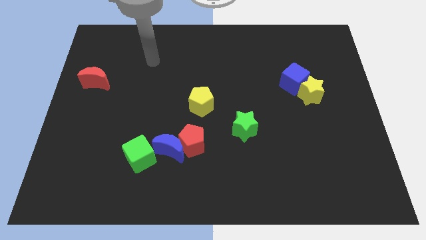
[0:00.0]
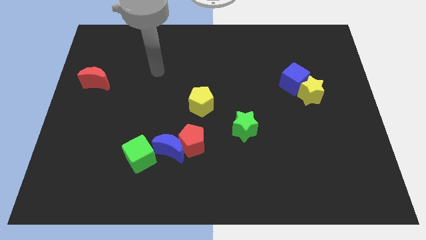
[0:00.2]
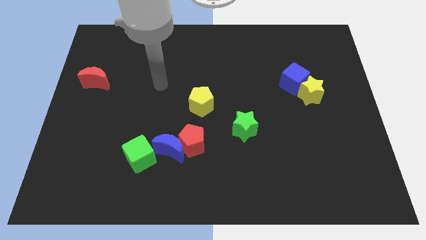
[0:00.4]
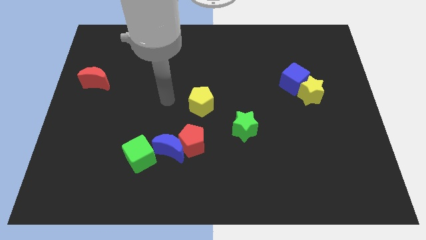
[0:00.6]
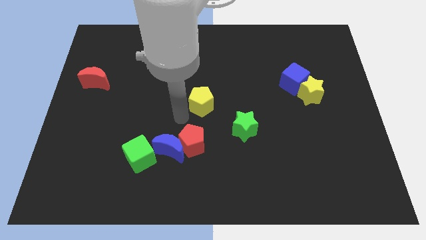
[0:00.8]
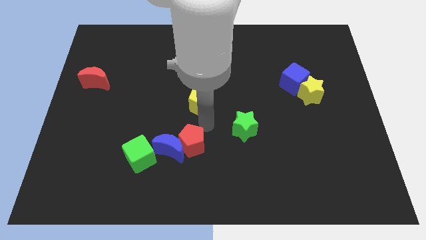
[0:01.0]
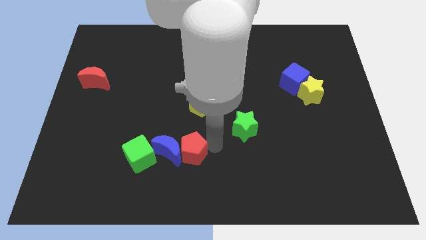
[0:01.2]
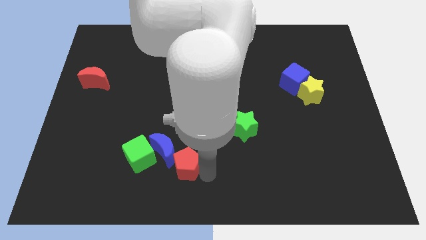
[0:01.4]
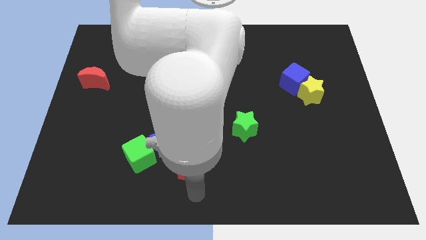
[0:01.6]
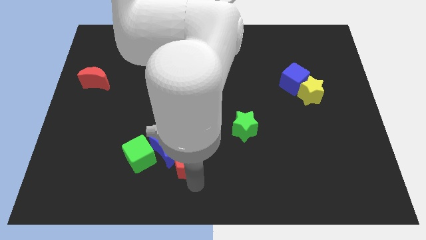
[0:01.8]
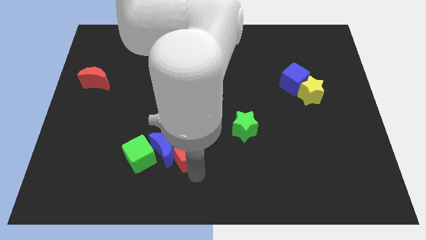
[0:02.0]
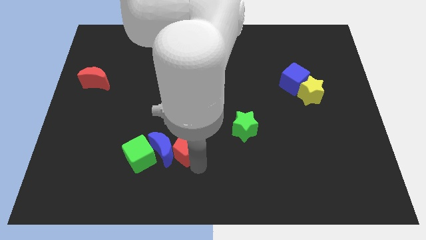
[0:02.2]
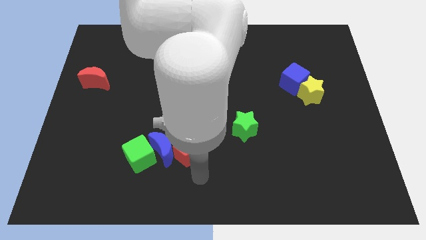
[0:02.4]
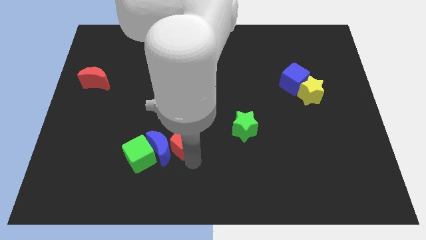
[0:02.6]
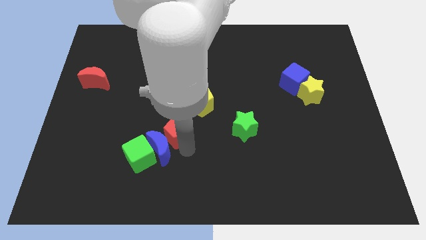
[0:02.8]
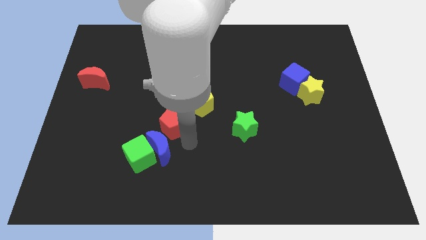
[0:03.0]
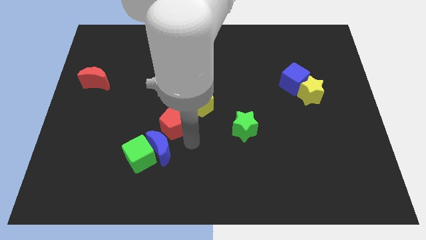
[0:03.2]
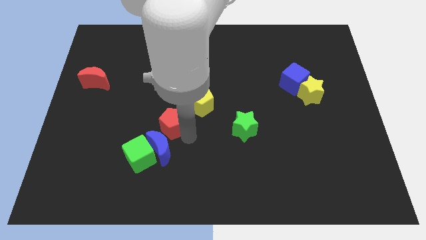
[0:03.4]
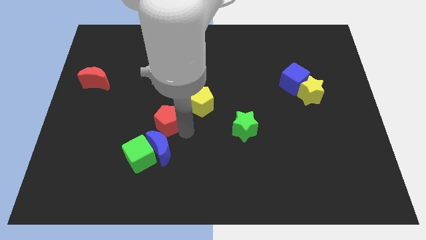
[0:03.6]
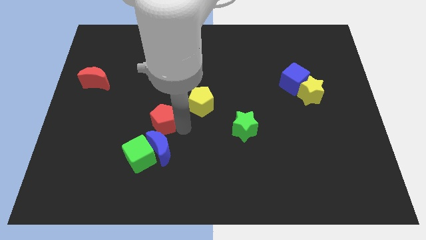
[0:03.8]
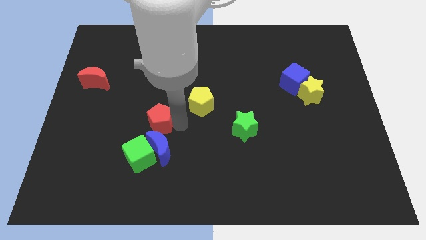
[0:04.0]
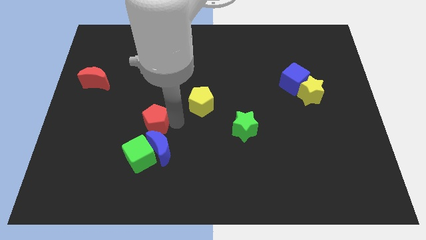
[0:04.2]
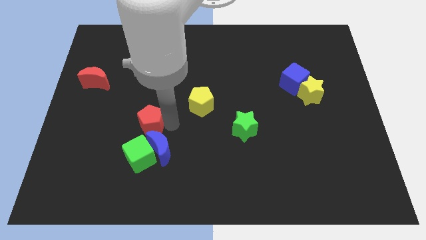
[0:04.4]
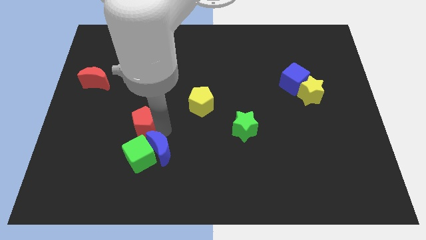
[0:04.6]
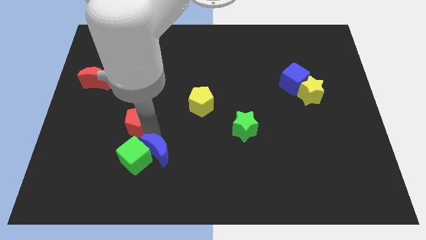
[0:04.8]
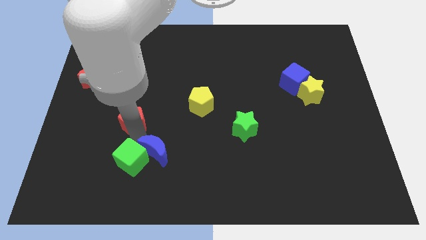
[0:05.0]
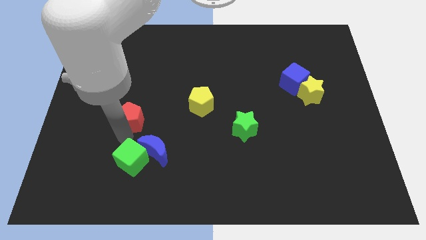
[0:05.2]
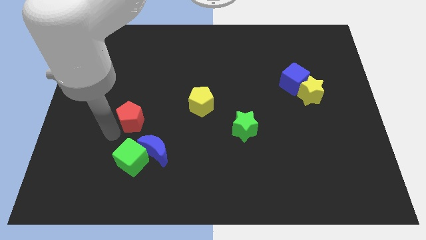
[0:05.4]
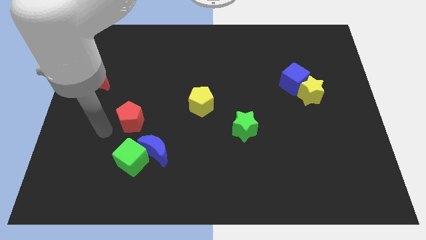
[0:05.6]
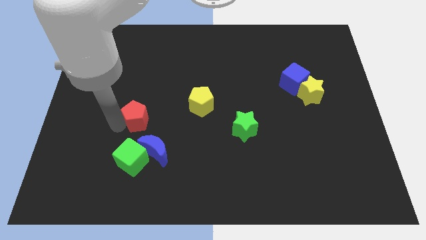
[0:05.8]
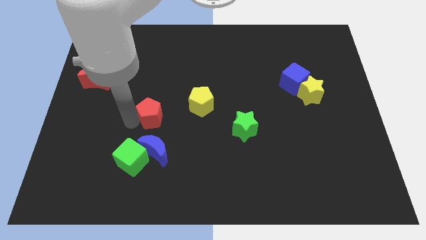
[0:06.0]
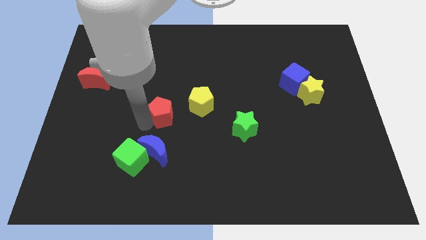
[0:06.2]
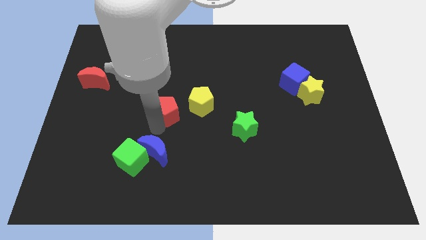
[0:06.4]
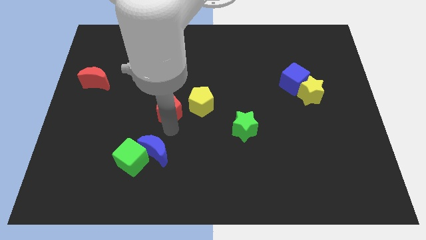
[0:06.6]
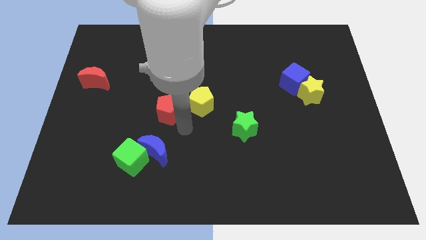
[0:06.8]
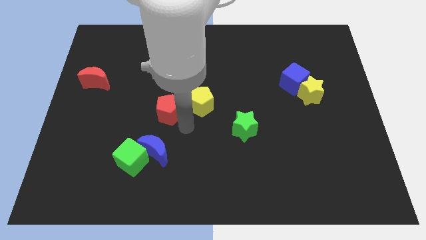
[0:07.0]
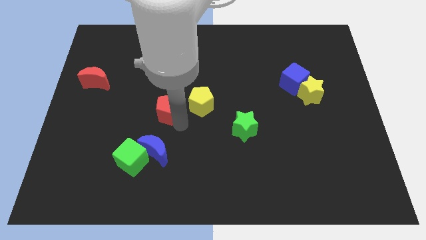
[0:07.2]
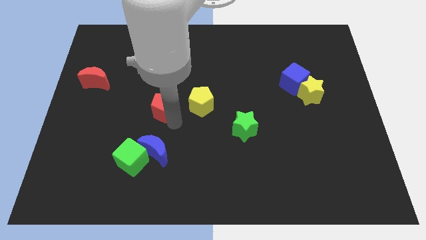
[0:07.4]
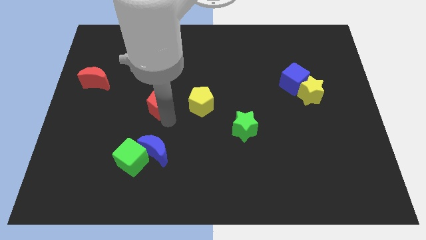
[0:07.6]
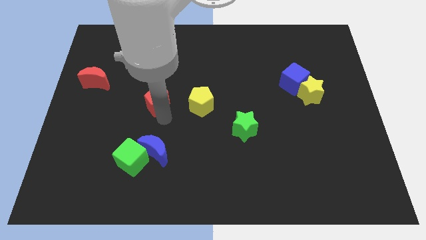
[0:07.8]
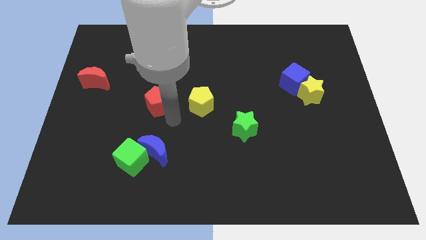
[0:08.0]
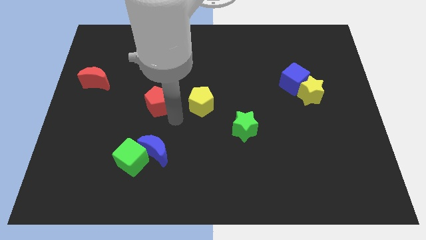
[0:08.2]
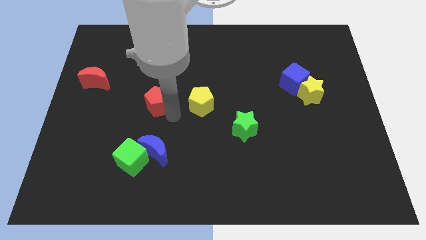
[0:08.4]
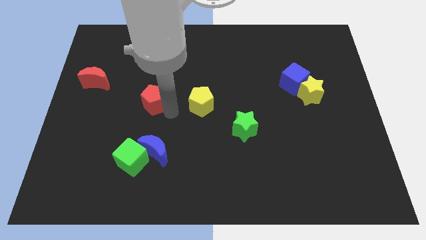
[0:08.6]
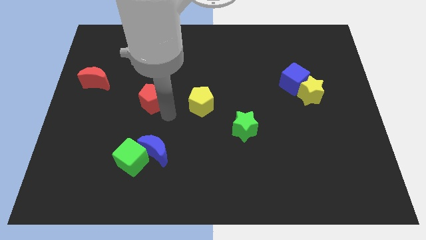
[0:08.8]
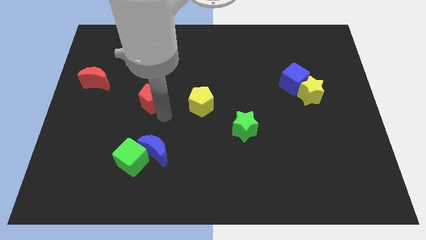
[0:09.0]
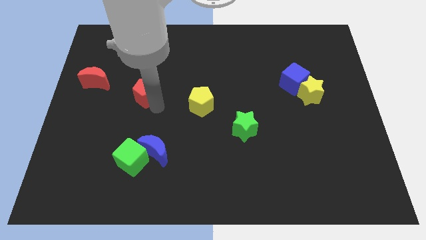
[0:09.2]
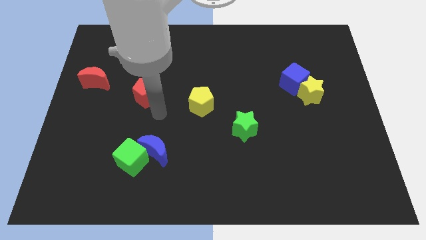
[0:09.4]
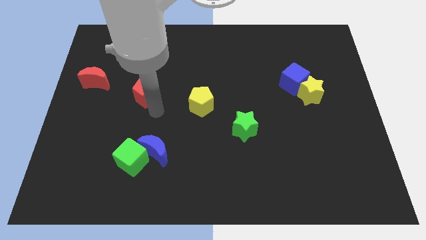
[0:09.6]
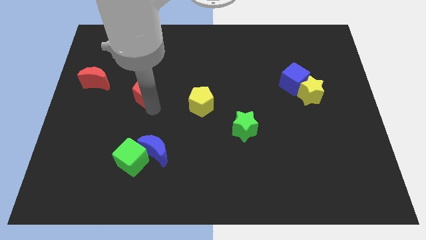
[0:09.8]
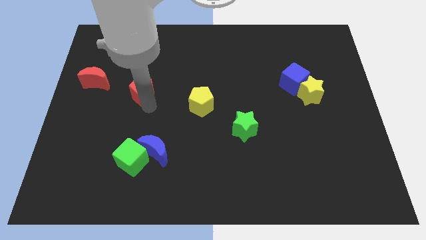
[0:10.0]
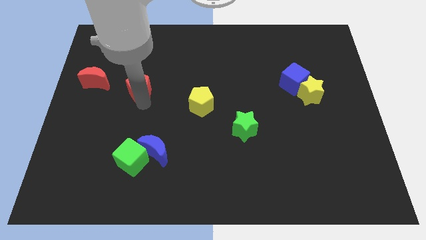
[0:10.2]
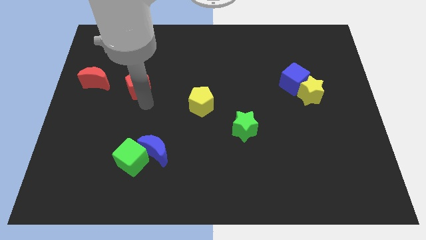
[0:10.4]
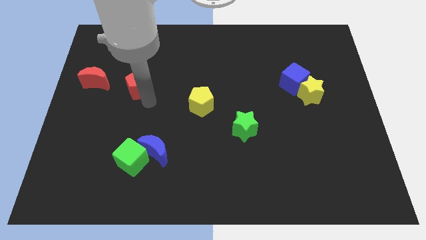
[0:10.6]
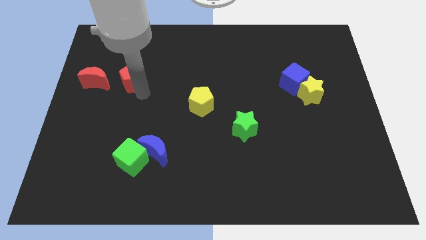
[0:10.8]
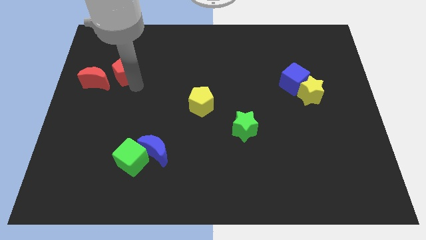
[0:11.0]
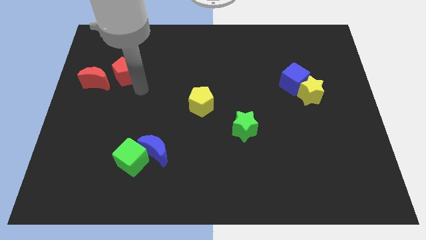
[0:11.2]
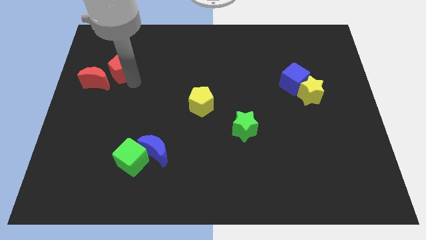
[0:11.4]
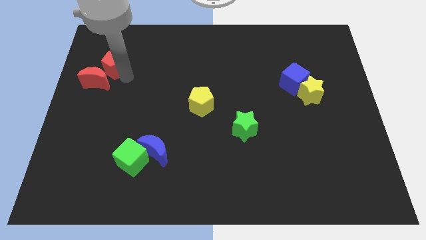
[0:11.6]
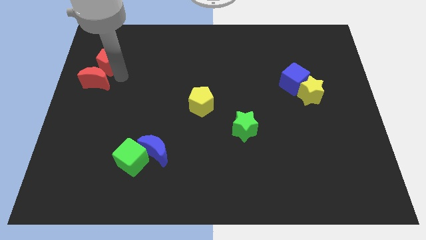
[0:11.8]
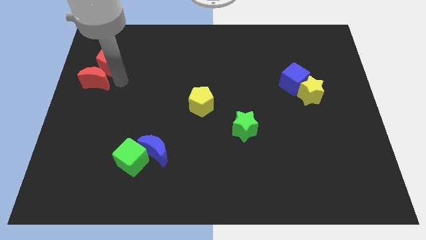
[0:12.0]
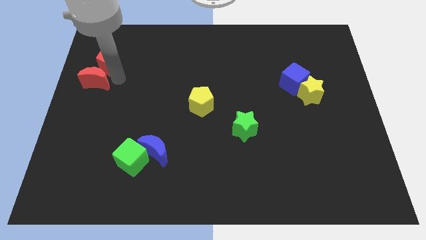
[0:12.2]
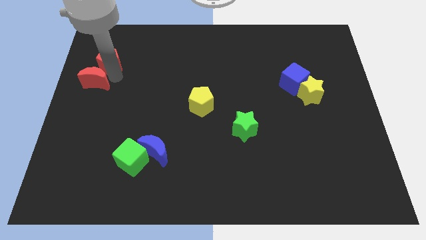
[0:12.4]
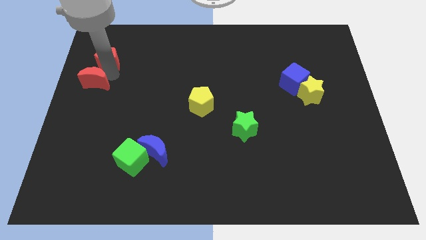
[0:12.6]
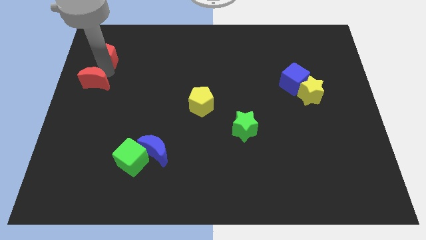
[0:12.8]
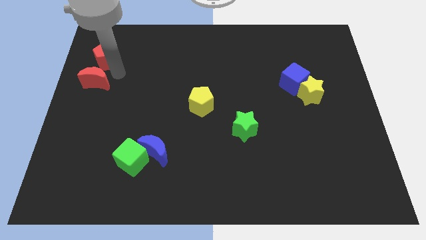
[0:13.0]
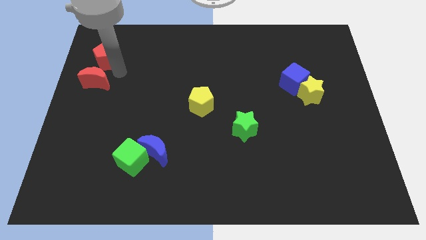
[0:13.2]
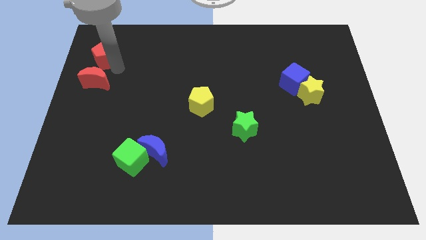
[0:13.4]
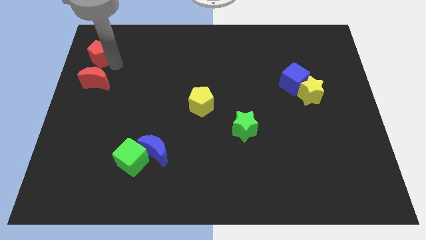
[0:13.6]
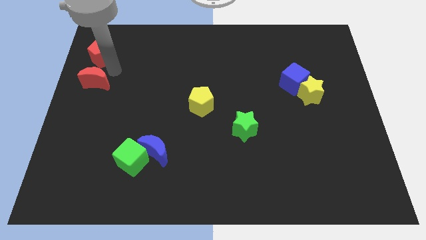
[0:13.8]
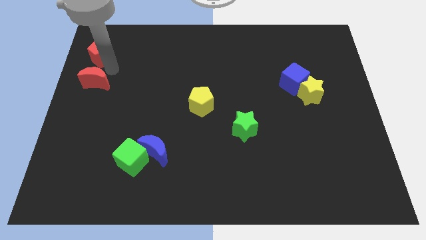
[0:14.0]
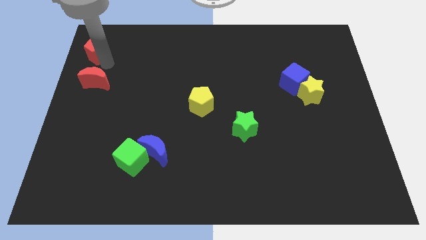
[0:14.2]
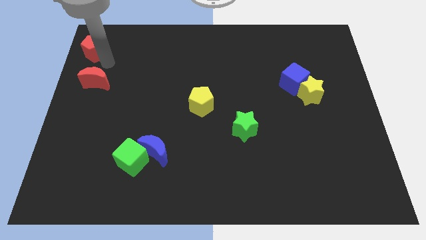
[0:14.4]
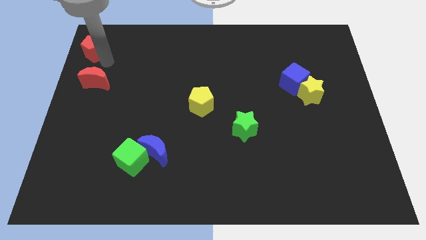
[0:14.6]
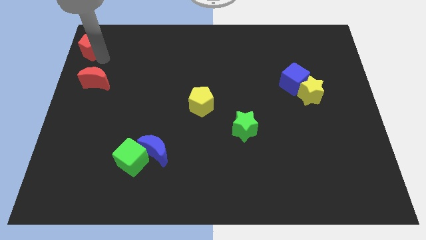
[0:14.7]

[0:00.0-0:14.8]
move the red pentagon to the top left corner
